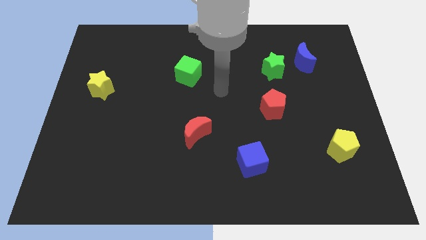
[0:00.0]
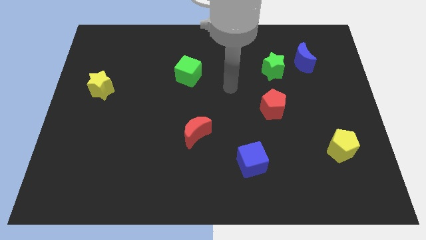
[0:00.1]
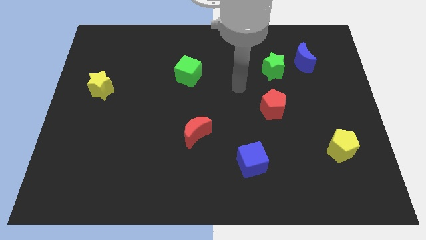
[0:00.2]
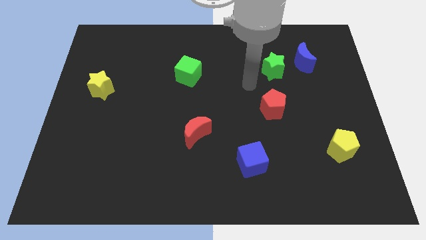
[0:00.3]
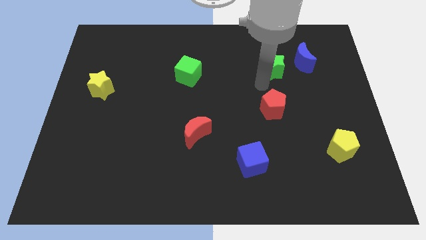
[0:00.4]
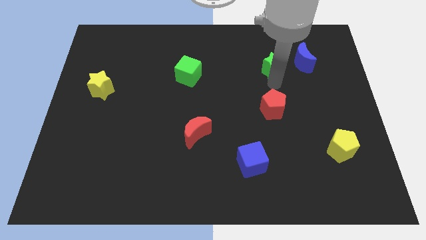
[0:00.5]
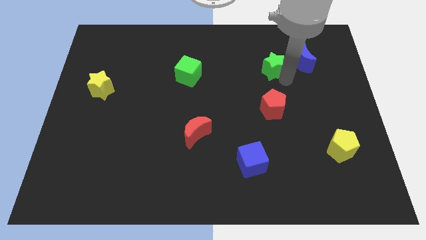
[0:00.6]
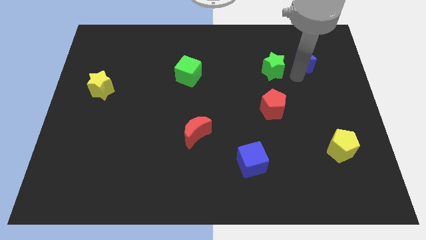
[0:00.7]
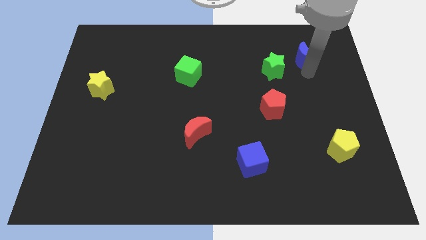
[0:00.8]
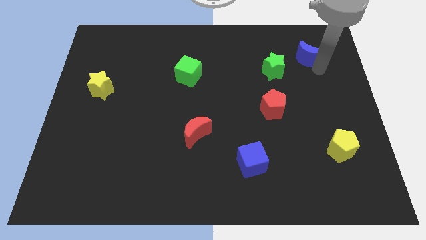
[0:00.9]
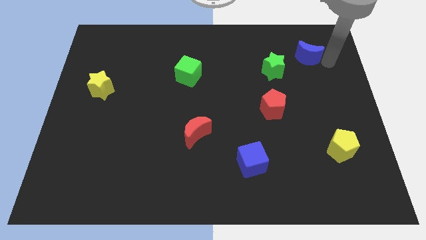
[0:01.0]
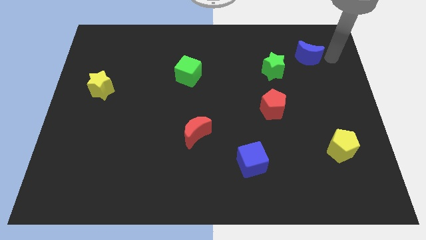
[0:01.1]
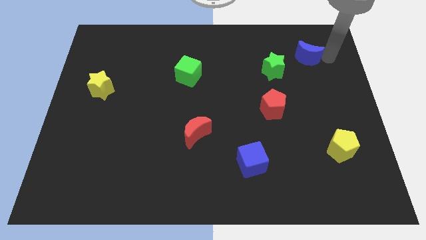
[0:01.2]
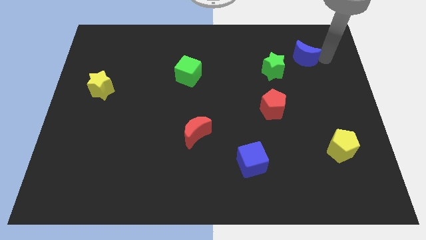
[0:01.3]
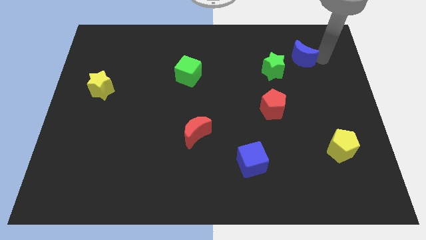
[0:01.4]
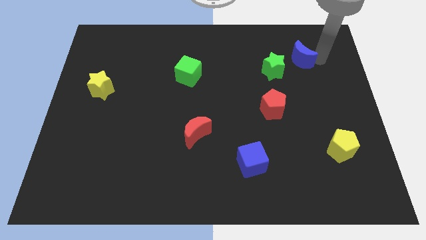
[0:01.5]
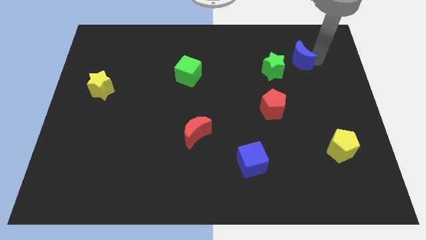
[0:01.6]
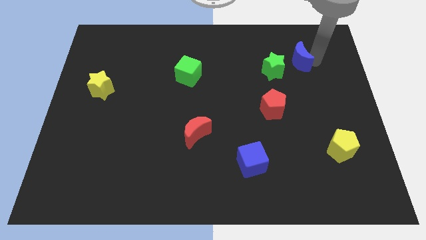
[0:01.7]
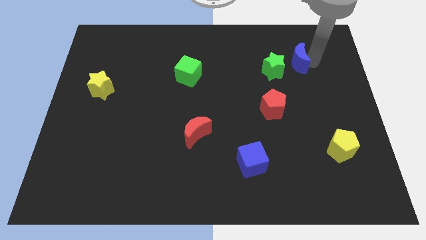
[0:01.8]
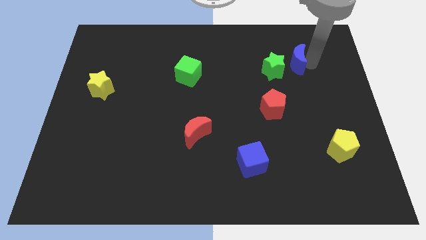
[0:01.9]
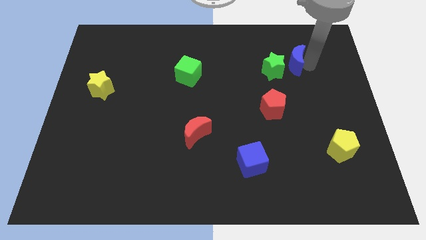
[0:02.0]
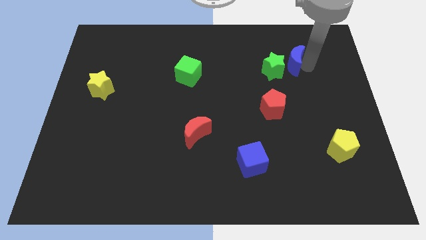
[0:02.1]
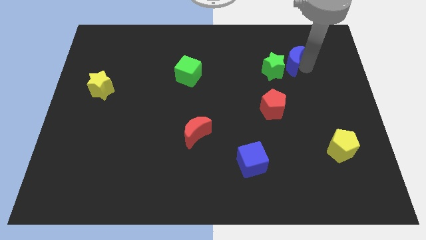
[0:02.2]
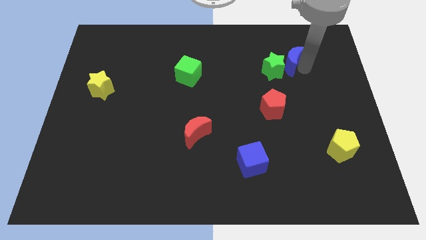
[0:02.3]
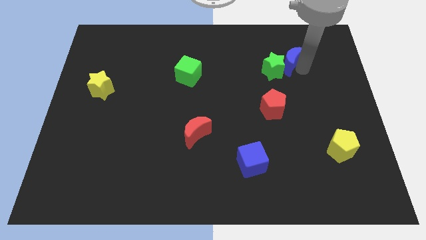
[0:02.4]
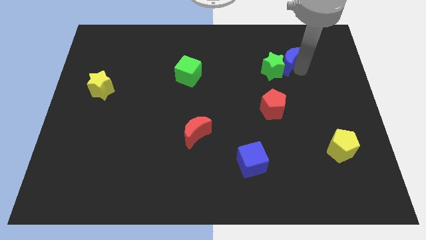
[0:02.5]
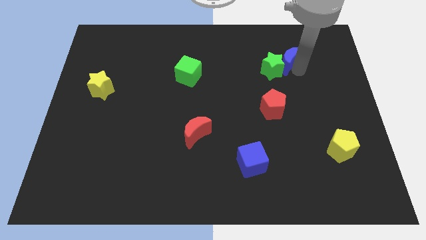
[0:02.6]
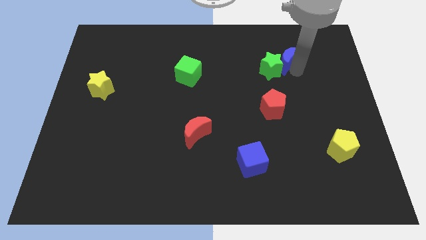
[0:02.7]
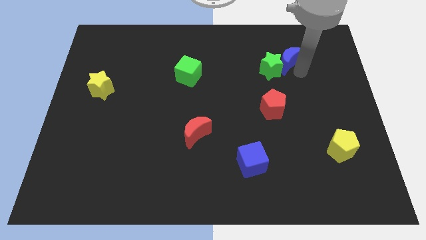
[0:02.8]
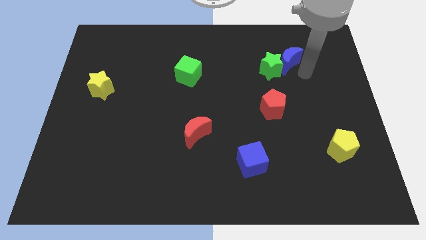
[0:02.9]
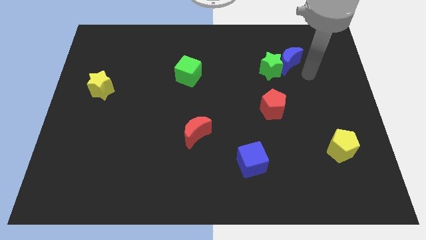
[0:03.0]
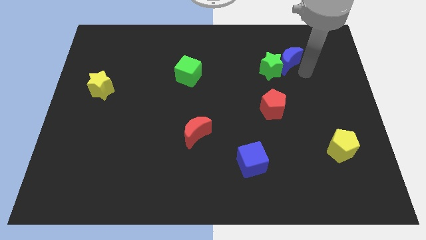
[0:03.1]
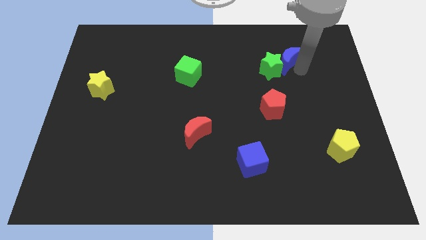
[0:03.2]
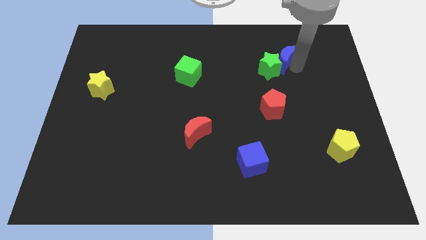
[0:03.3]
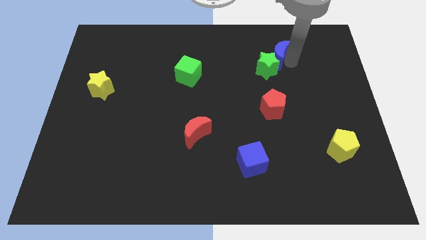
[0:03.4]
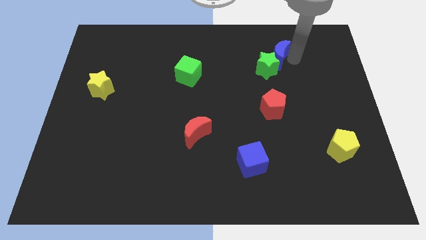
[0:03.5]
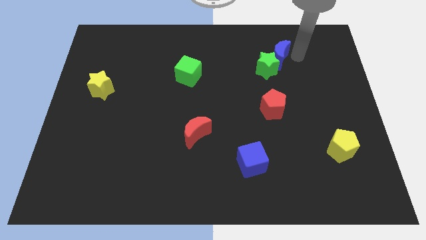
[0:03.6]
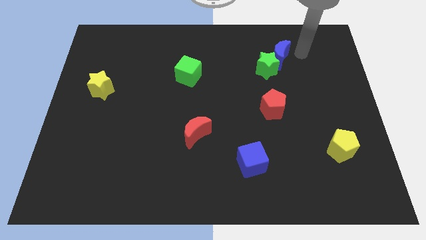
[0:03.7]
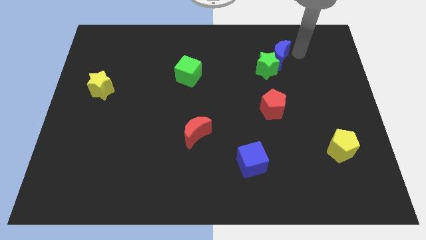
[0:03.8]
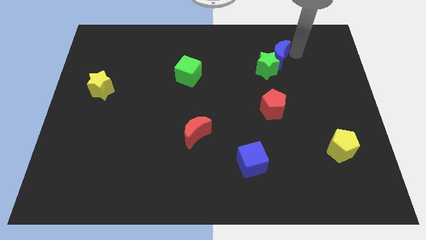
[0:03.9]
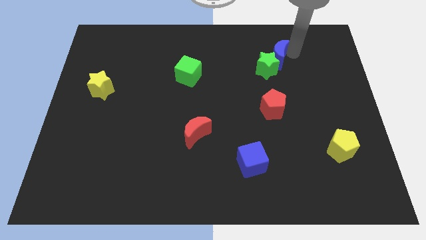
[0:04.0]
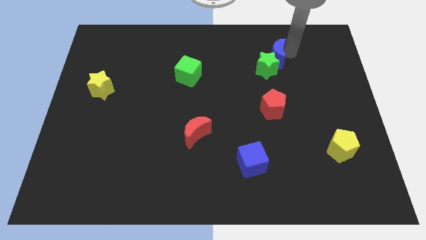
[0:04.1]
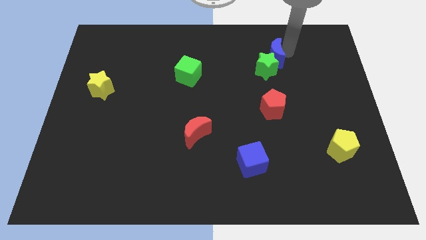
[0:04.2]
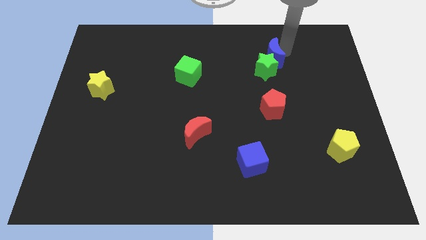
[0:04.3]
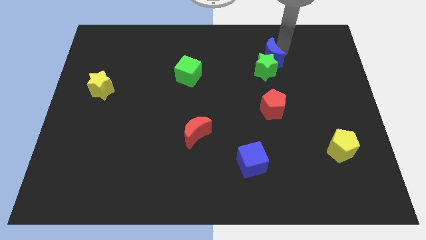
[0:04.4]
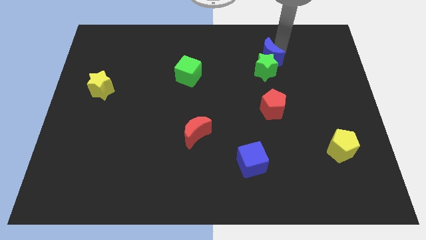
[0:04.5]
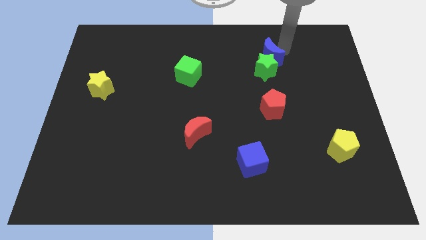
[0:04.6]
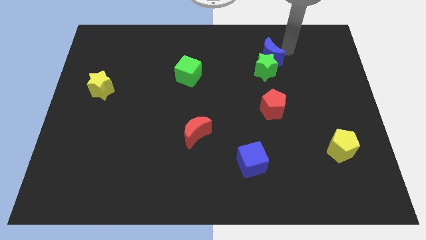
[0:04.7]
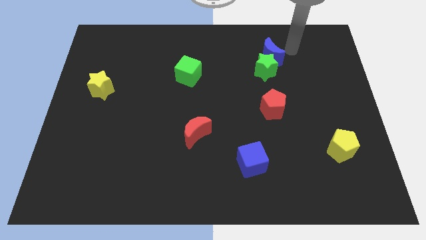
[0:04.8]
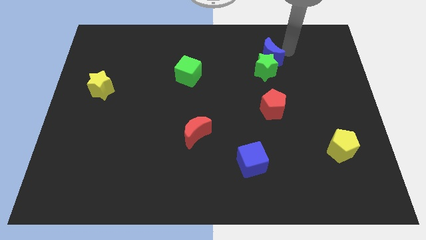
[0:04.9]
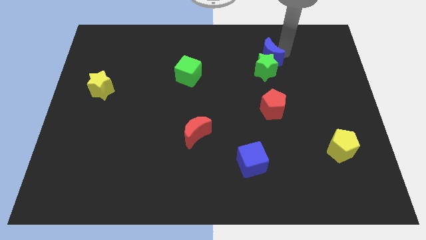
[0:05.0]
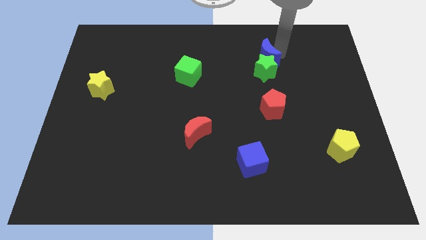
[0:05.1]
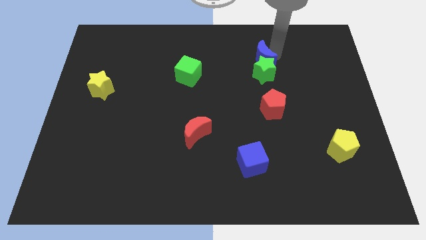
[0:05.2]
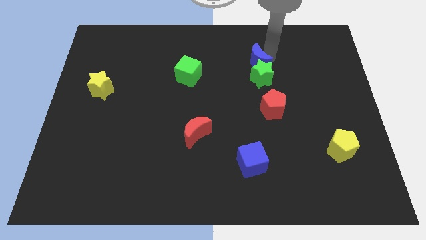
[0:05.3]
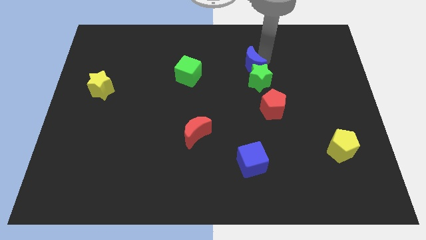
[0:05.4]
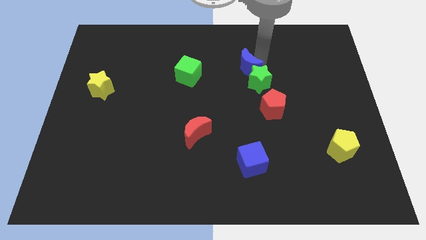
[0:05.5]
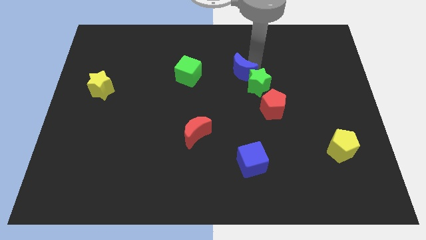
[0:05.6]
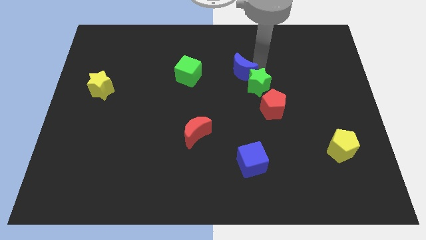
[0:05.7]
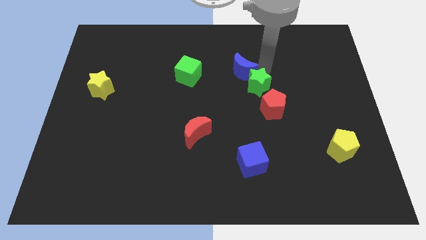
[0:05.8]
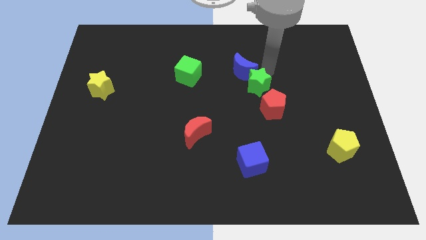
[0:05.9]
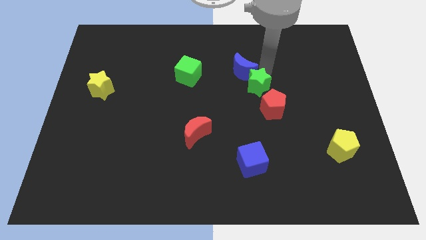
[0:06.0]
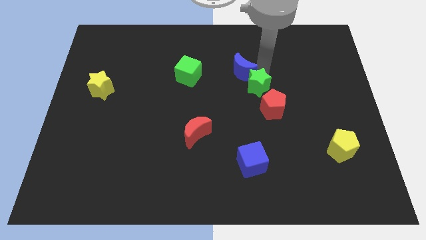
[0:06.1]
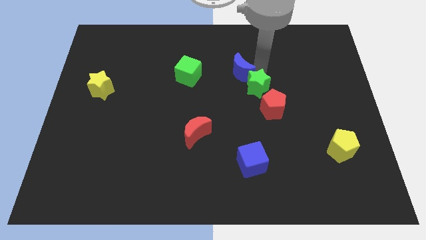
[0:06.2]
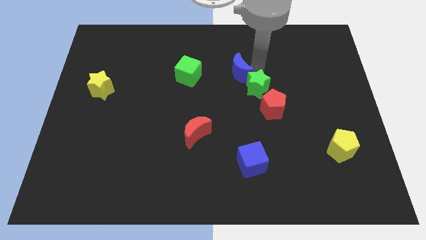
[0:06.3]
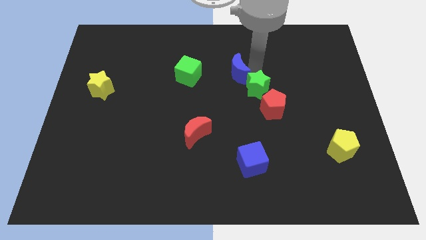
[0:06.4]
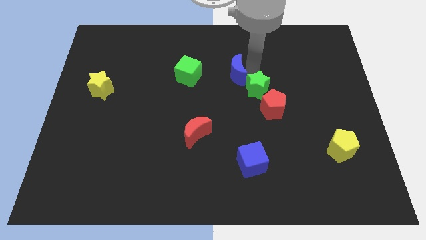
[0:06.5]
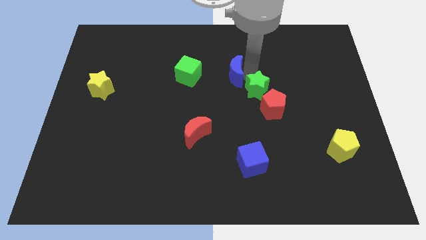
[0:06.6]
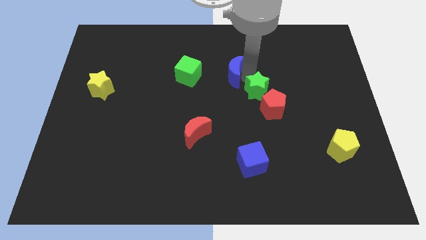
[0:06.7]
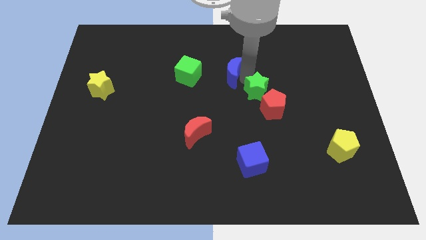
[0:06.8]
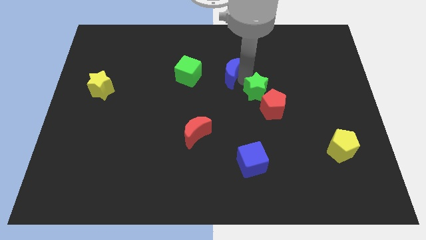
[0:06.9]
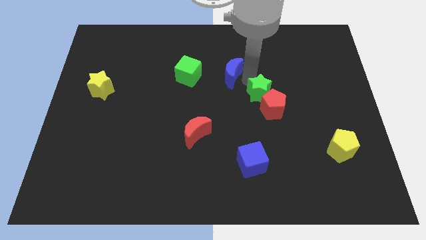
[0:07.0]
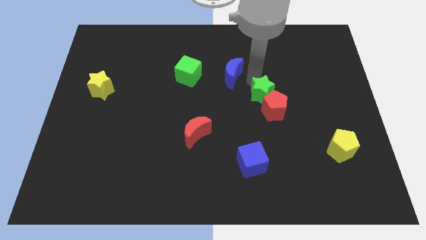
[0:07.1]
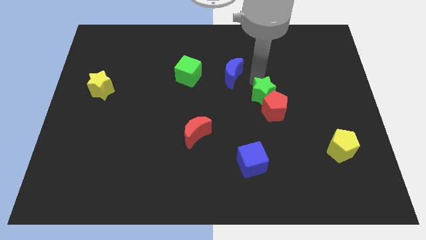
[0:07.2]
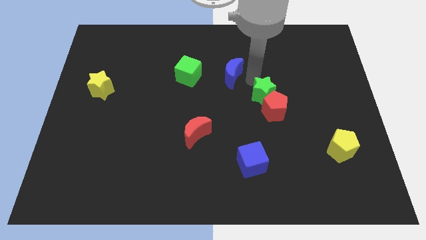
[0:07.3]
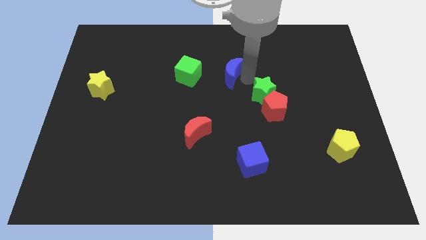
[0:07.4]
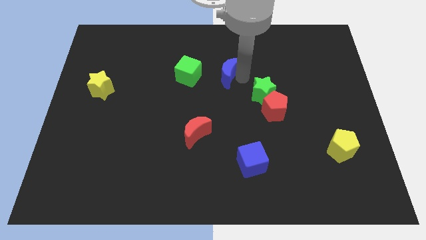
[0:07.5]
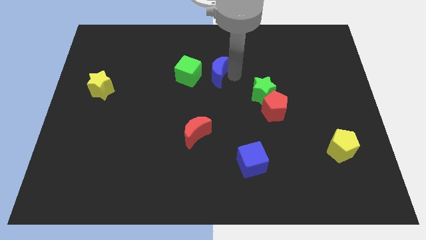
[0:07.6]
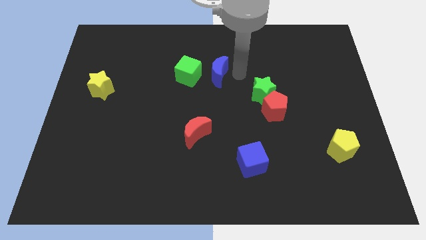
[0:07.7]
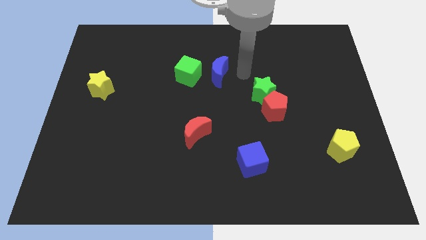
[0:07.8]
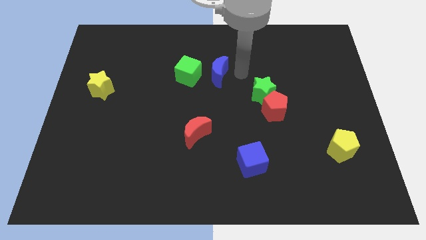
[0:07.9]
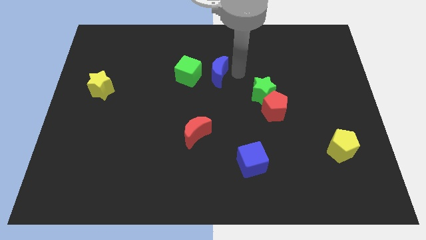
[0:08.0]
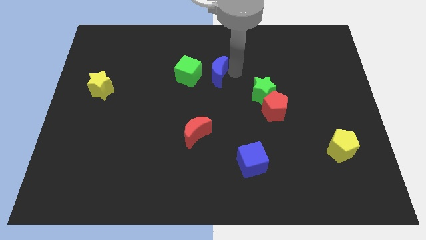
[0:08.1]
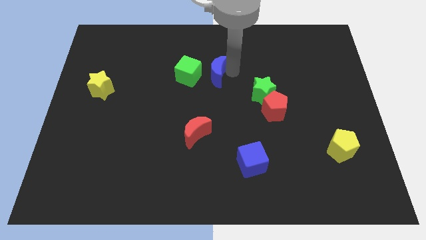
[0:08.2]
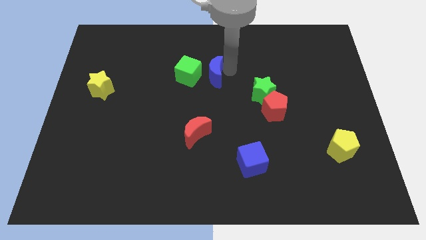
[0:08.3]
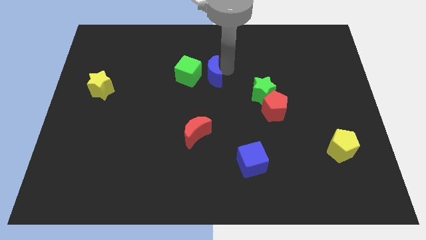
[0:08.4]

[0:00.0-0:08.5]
slide the blue moon next to the green cube
